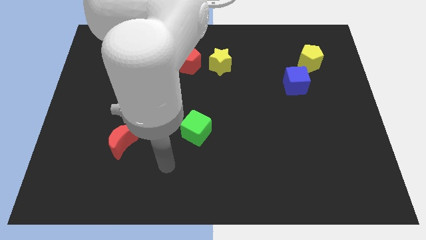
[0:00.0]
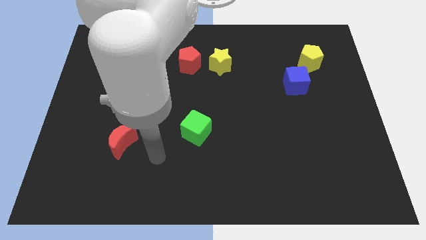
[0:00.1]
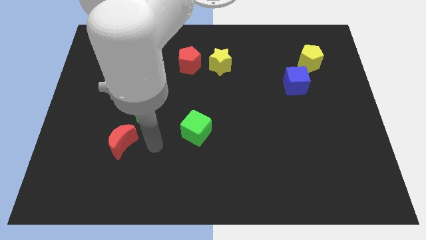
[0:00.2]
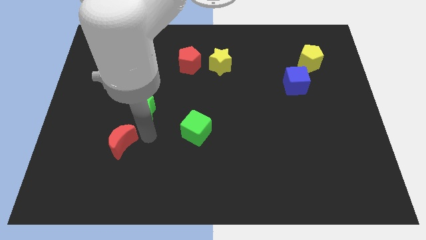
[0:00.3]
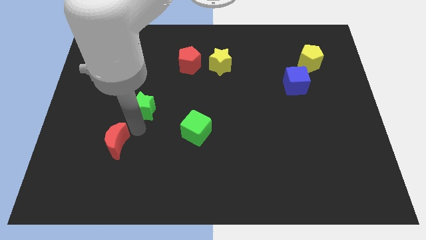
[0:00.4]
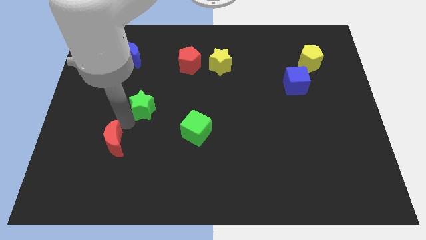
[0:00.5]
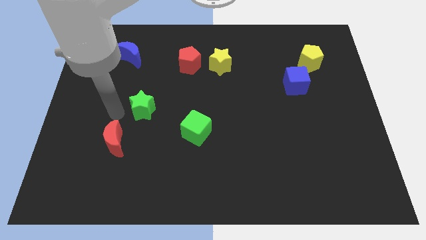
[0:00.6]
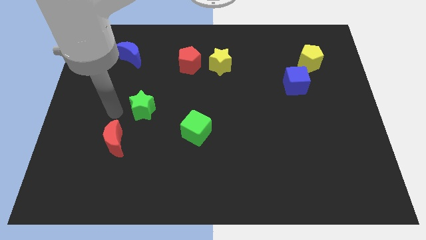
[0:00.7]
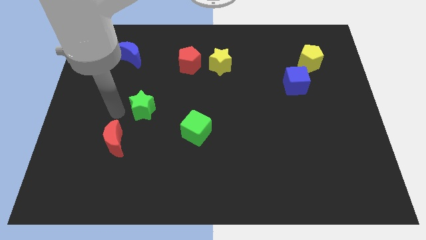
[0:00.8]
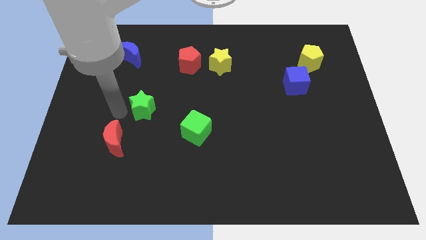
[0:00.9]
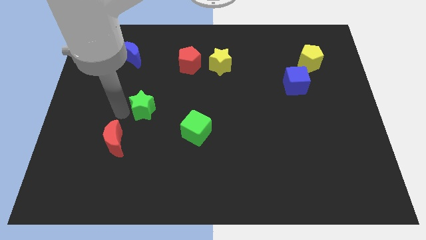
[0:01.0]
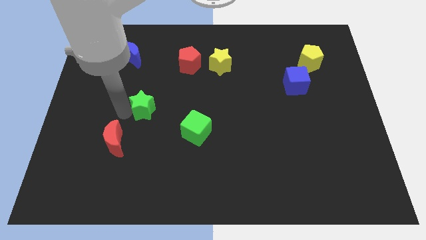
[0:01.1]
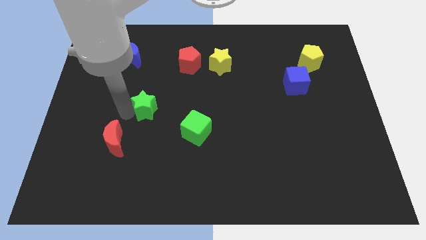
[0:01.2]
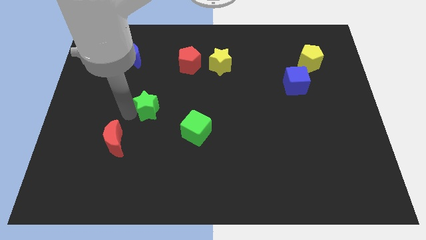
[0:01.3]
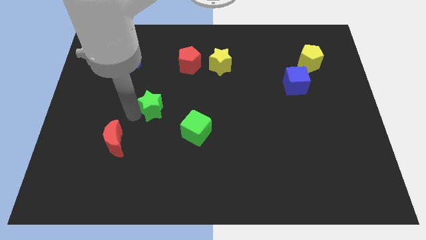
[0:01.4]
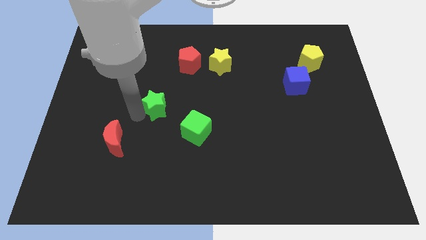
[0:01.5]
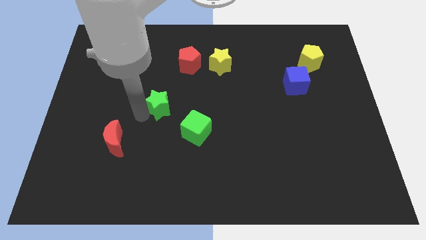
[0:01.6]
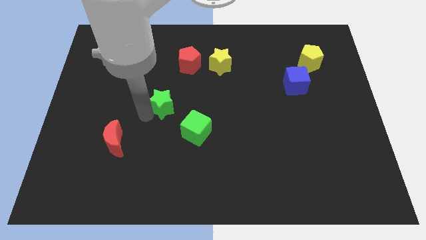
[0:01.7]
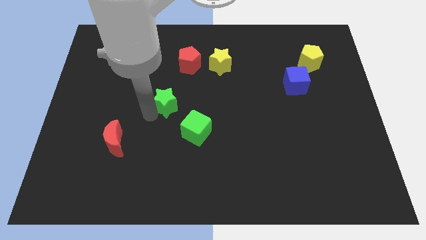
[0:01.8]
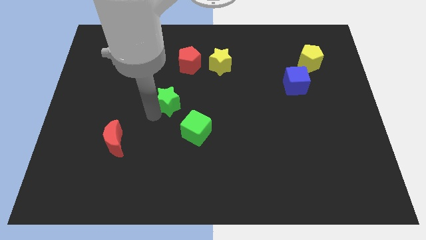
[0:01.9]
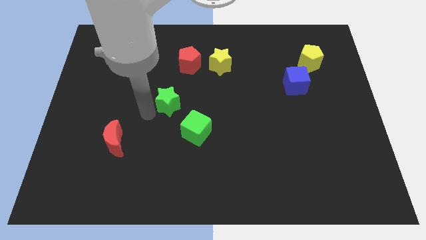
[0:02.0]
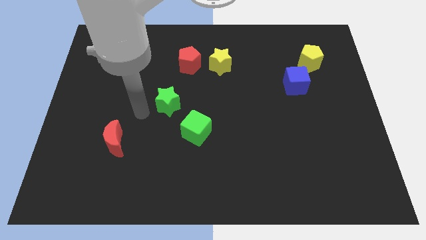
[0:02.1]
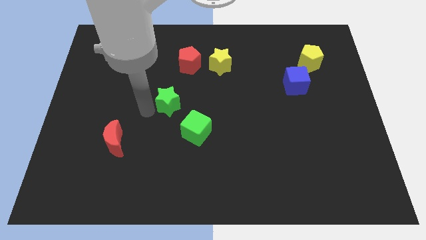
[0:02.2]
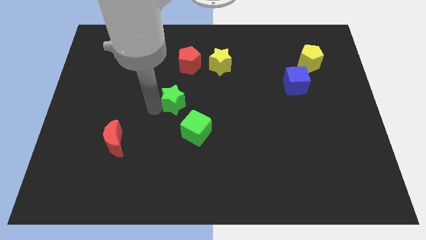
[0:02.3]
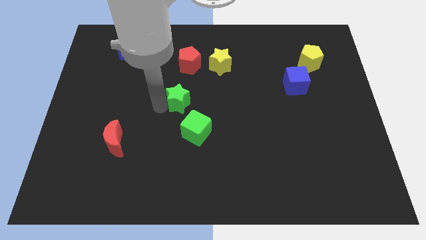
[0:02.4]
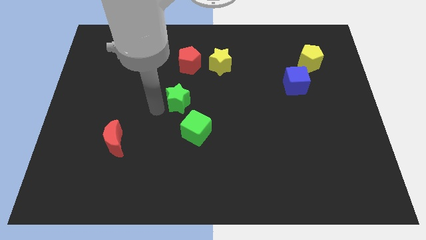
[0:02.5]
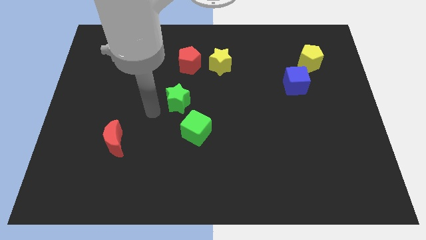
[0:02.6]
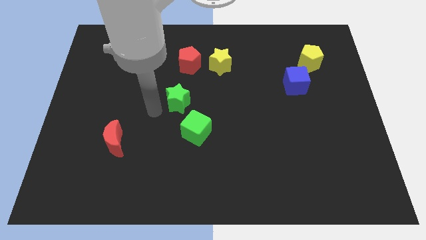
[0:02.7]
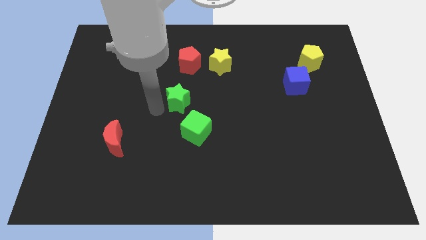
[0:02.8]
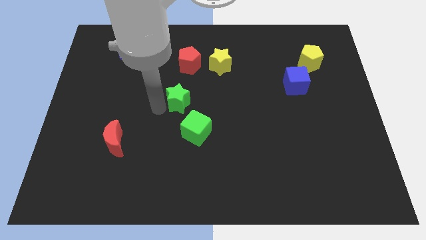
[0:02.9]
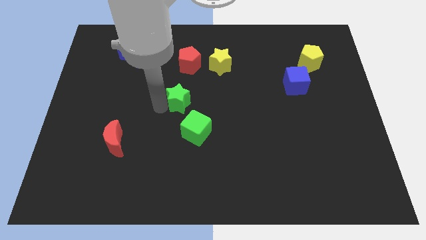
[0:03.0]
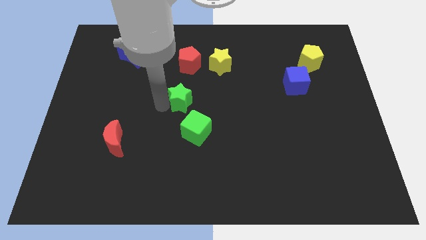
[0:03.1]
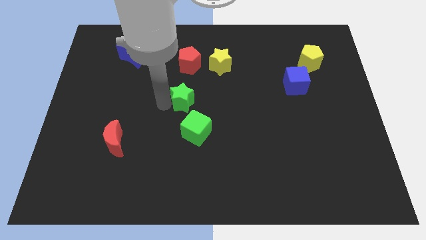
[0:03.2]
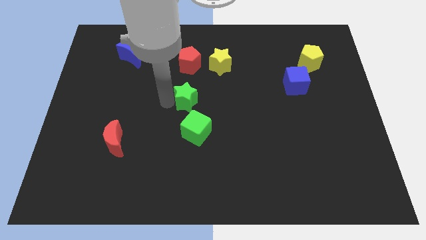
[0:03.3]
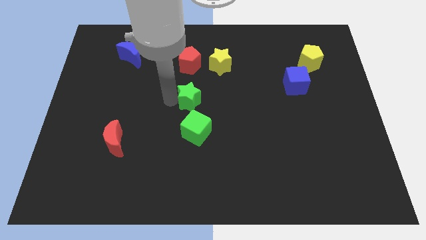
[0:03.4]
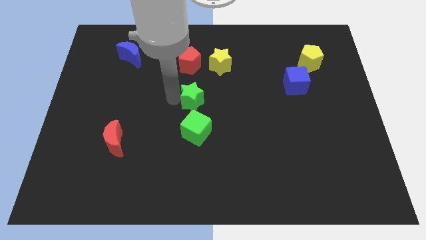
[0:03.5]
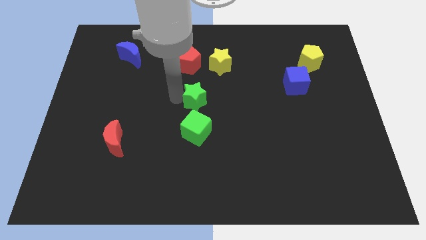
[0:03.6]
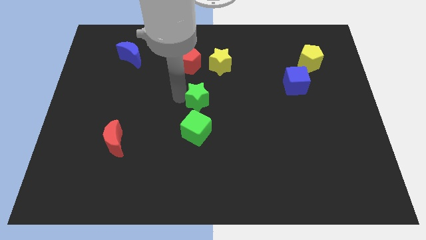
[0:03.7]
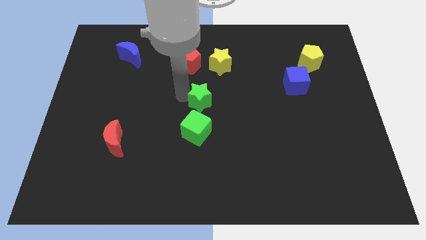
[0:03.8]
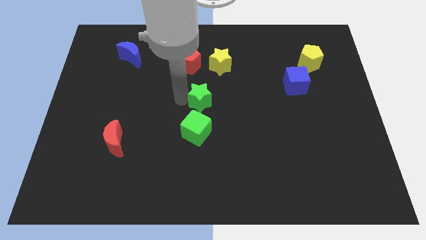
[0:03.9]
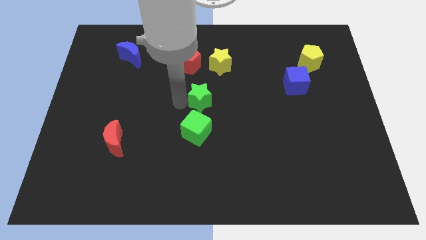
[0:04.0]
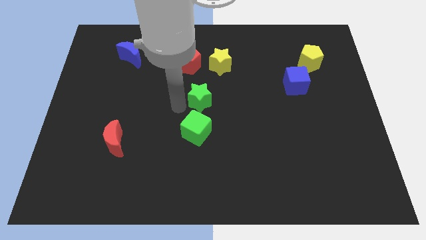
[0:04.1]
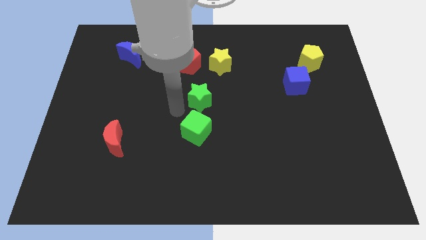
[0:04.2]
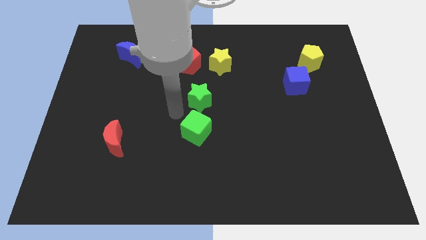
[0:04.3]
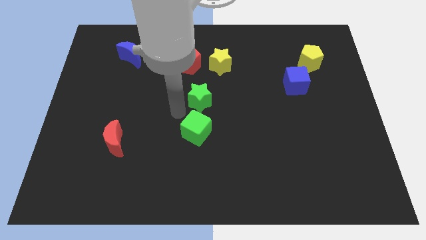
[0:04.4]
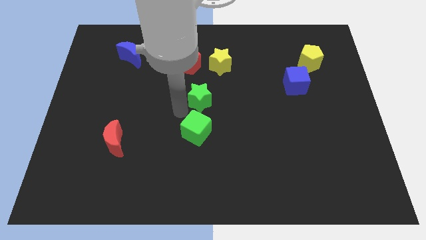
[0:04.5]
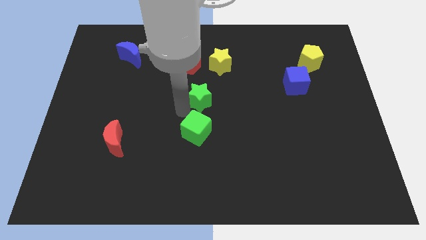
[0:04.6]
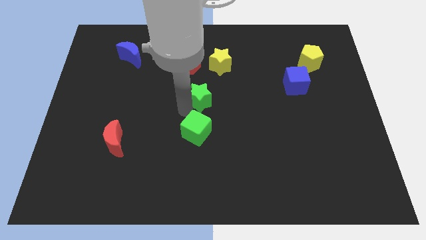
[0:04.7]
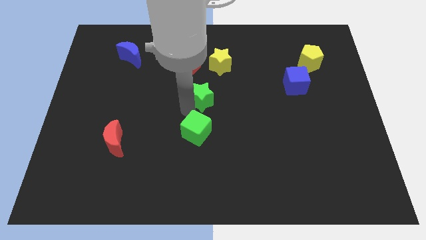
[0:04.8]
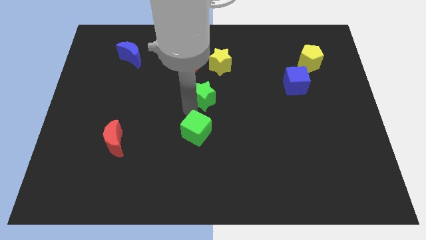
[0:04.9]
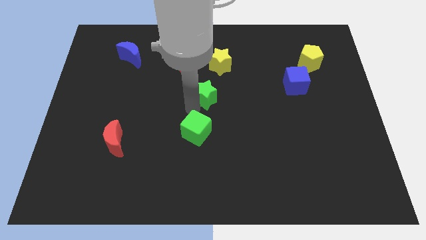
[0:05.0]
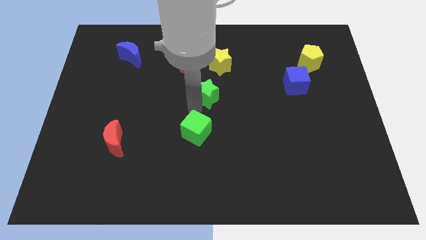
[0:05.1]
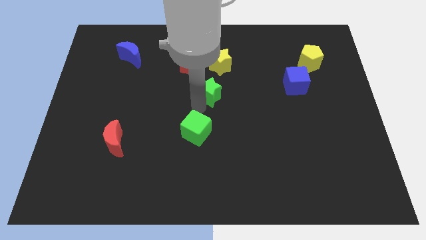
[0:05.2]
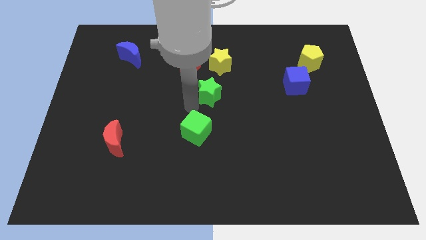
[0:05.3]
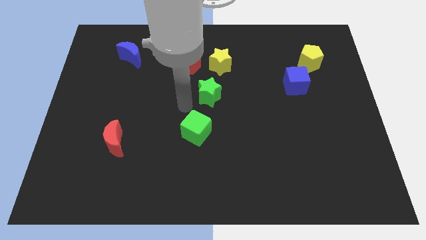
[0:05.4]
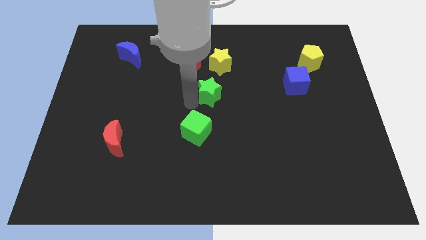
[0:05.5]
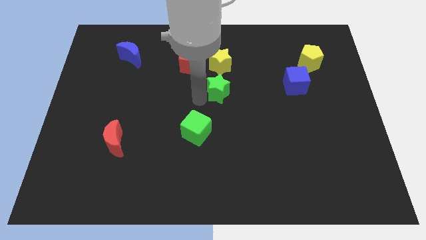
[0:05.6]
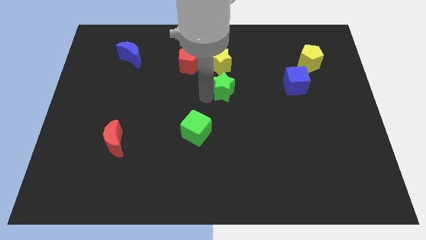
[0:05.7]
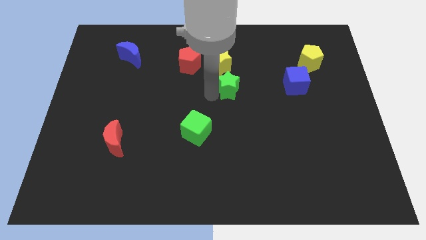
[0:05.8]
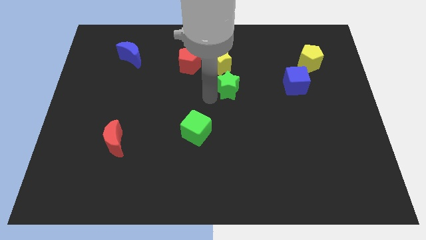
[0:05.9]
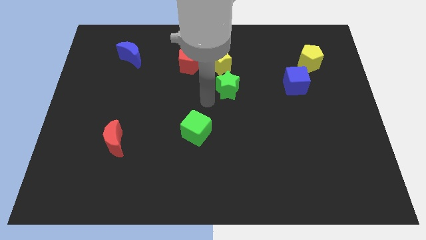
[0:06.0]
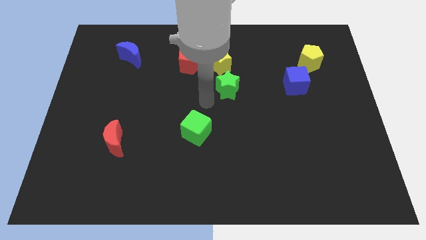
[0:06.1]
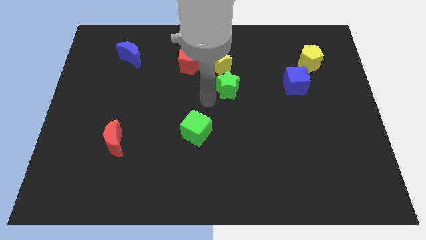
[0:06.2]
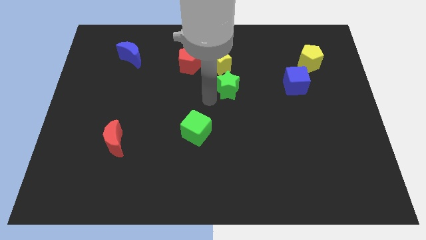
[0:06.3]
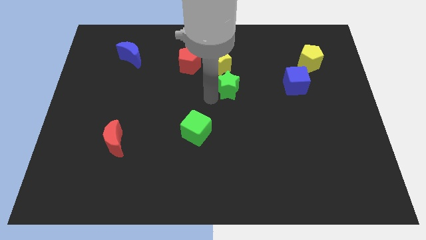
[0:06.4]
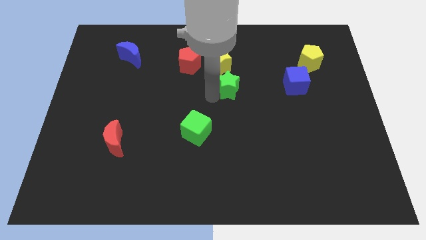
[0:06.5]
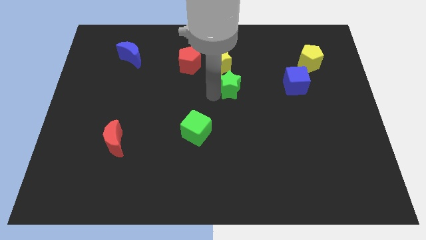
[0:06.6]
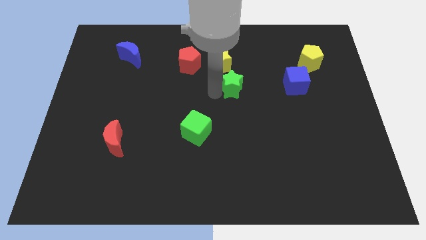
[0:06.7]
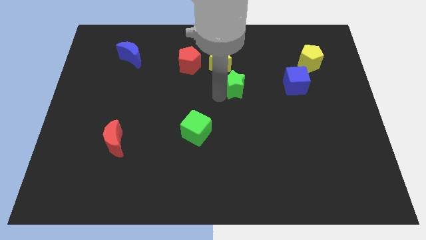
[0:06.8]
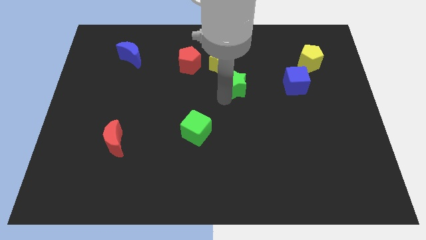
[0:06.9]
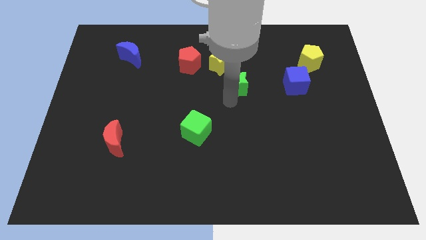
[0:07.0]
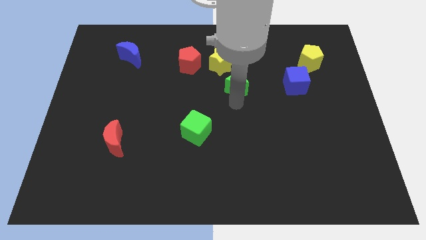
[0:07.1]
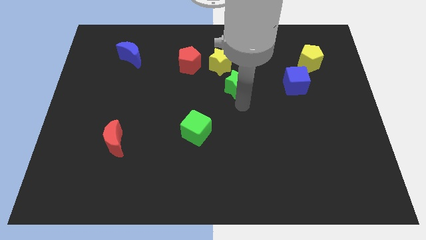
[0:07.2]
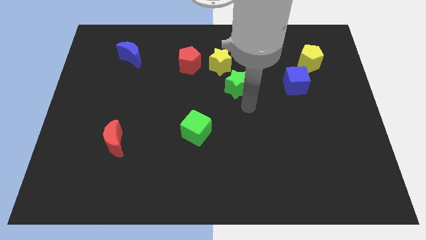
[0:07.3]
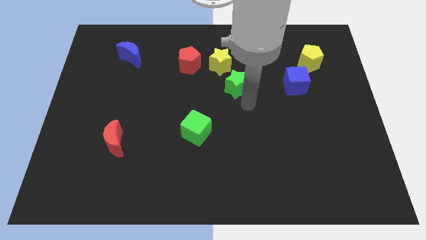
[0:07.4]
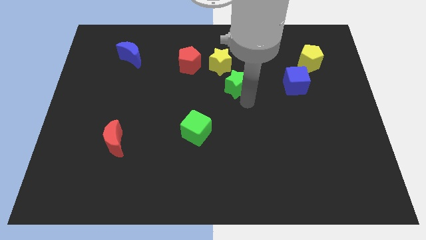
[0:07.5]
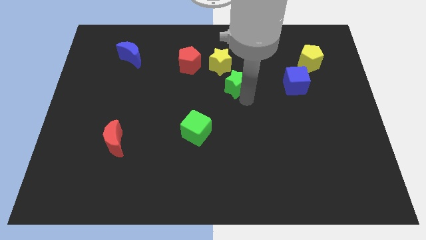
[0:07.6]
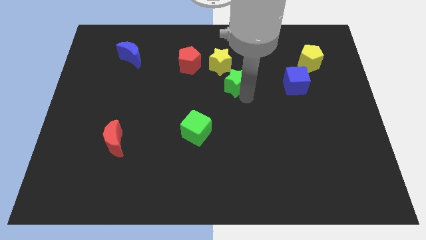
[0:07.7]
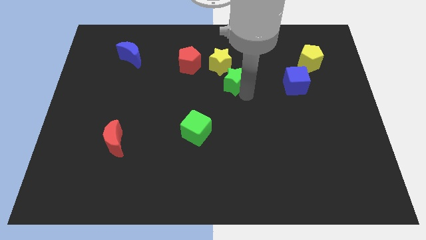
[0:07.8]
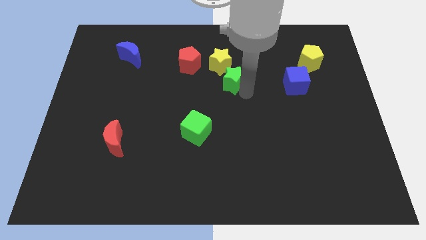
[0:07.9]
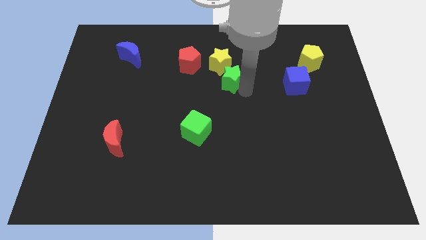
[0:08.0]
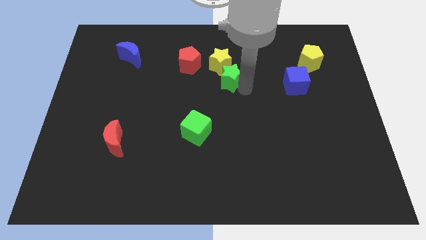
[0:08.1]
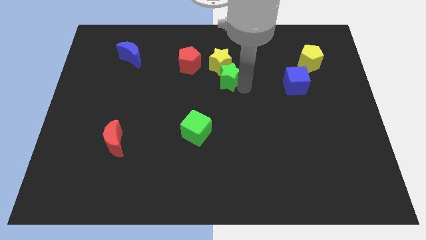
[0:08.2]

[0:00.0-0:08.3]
move the green star next to the yellow star
